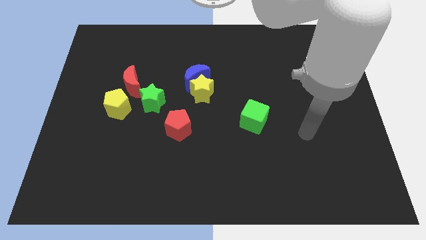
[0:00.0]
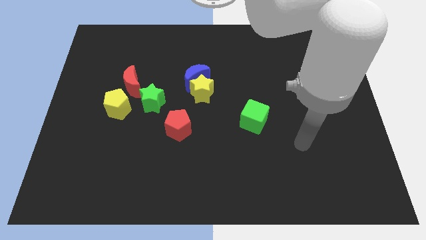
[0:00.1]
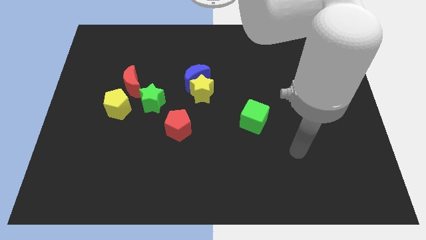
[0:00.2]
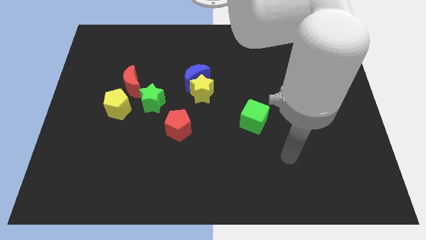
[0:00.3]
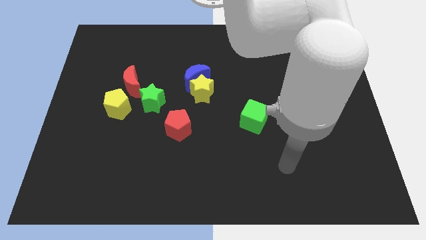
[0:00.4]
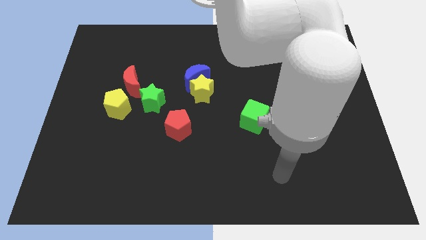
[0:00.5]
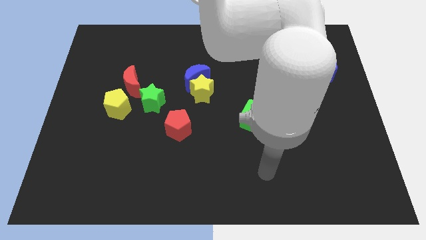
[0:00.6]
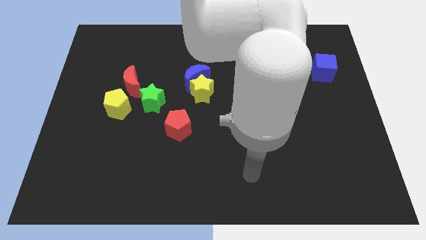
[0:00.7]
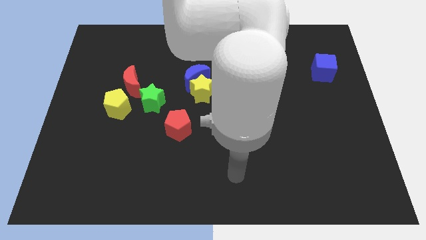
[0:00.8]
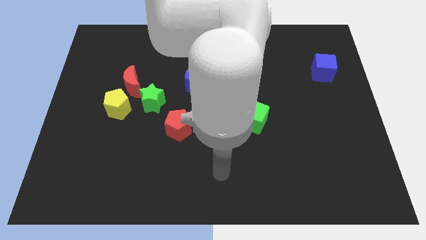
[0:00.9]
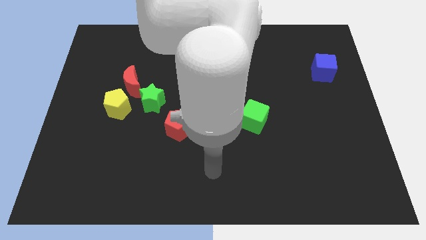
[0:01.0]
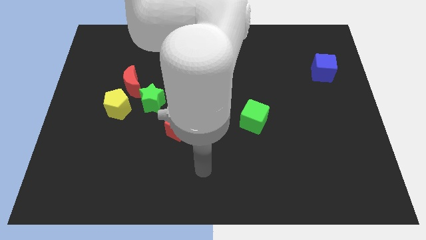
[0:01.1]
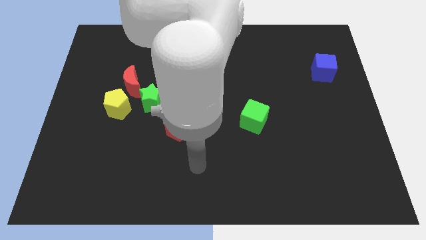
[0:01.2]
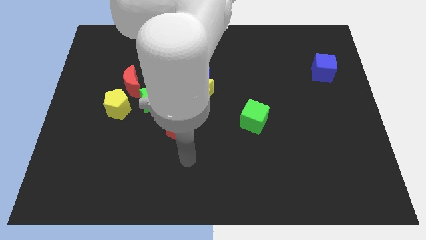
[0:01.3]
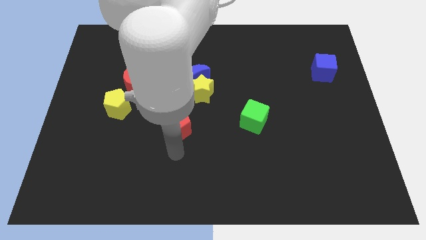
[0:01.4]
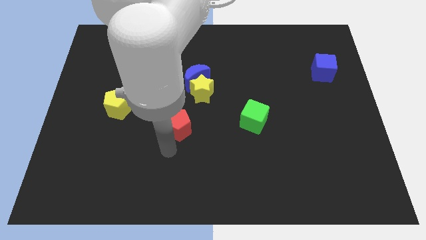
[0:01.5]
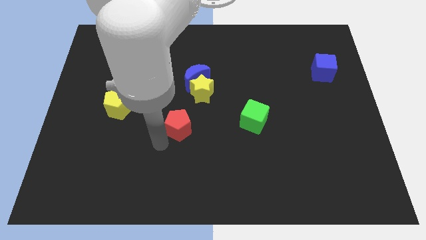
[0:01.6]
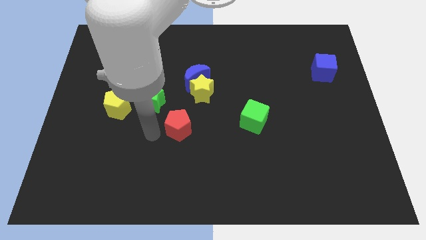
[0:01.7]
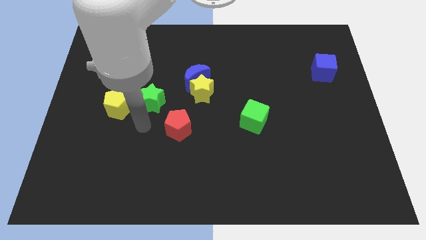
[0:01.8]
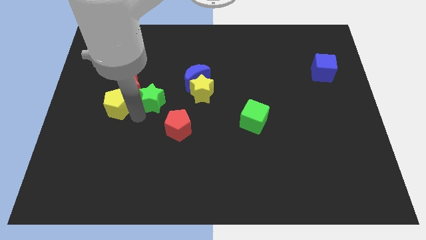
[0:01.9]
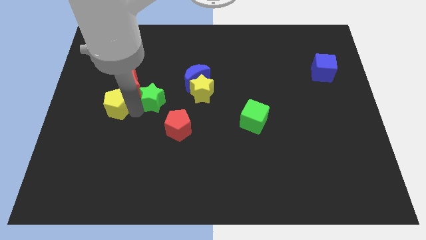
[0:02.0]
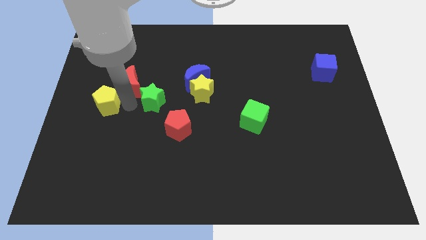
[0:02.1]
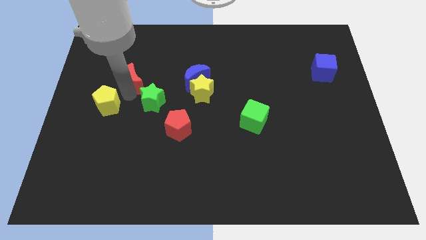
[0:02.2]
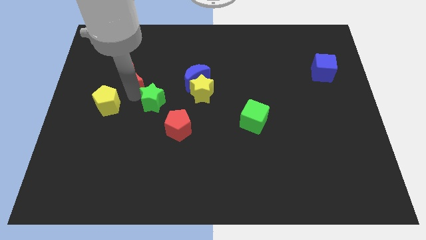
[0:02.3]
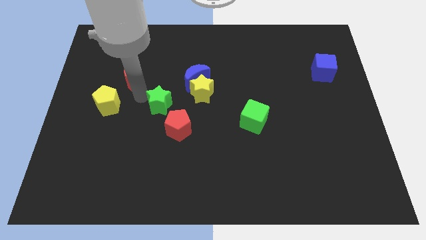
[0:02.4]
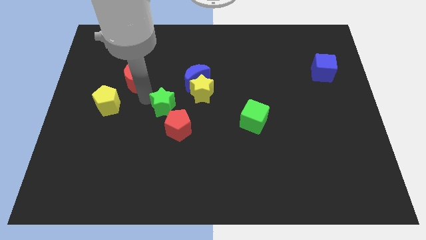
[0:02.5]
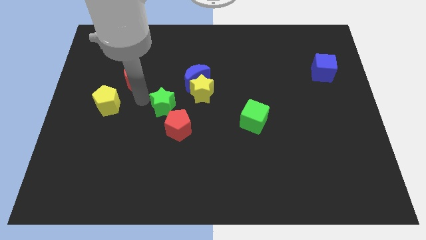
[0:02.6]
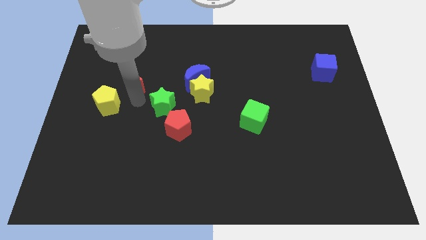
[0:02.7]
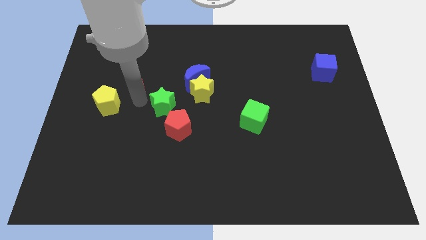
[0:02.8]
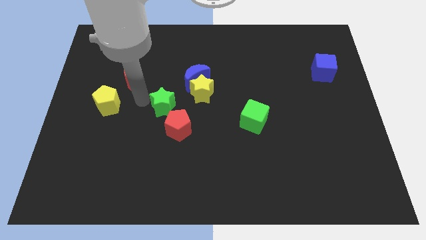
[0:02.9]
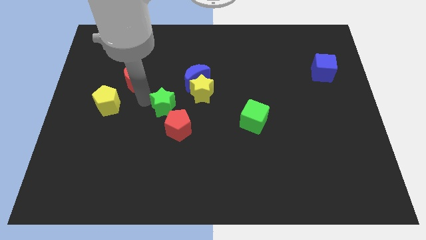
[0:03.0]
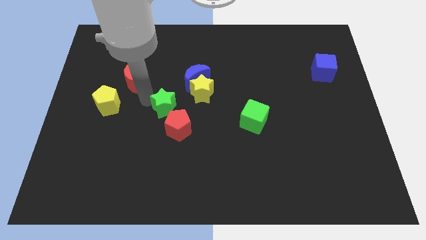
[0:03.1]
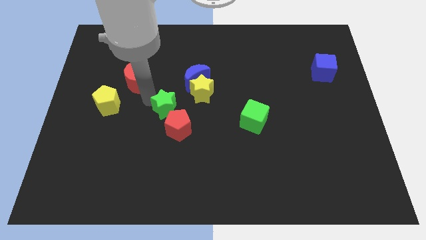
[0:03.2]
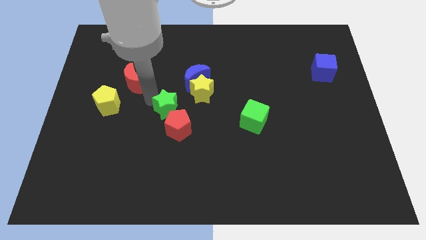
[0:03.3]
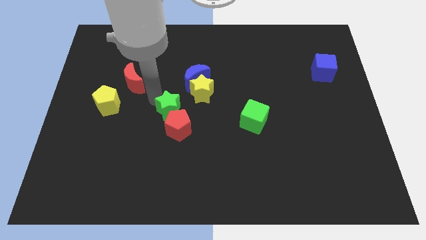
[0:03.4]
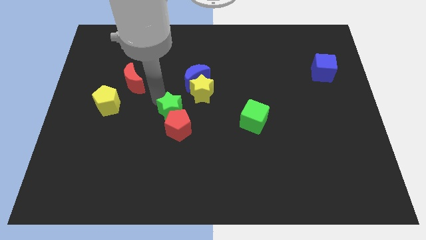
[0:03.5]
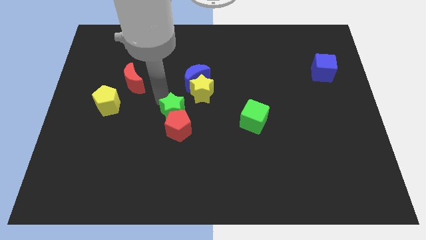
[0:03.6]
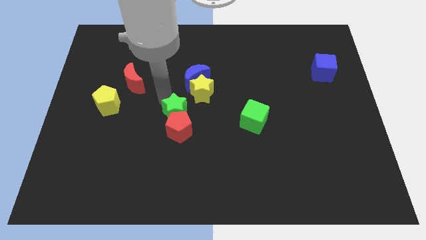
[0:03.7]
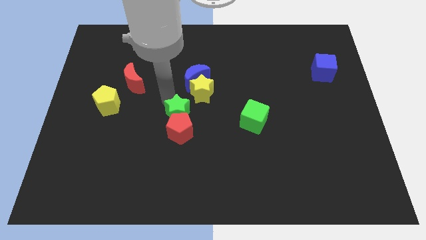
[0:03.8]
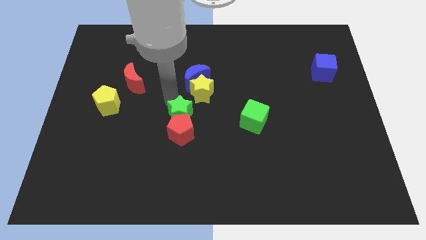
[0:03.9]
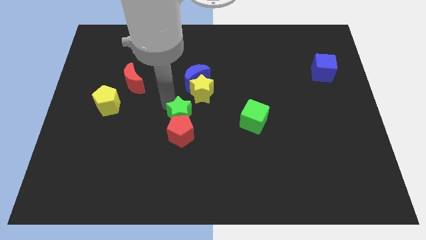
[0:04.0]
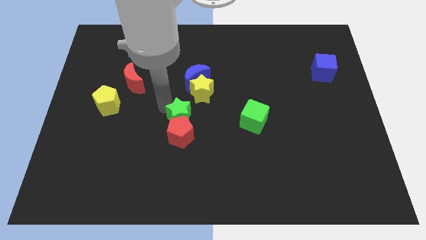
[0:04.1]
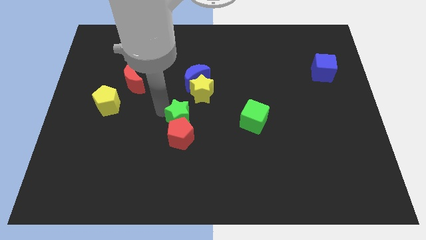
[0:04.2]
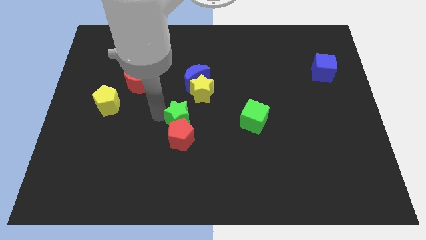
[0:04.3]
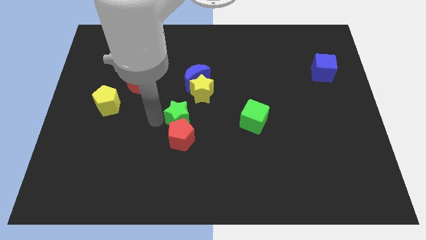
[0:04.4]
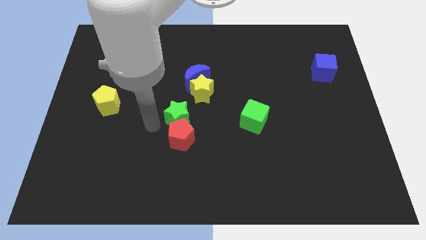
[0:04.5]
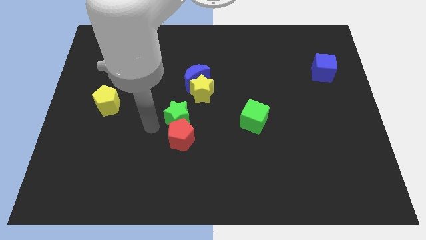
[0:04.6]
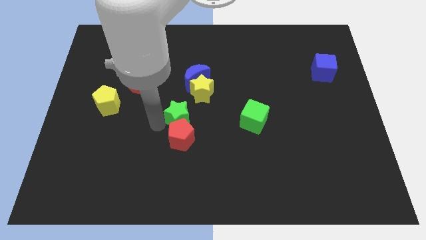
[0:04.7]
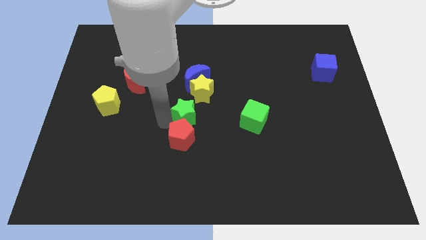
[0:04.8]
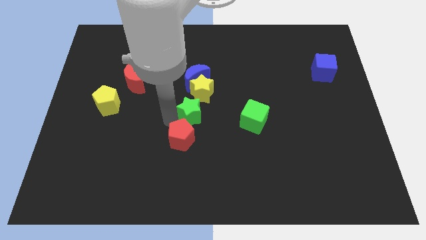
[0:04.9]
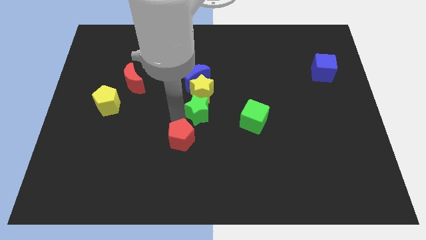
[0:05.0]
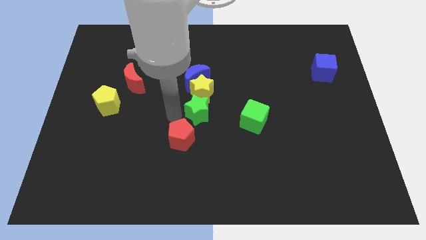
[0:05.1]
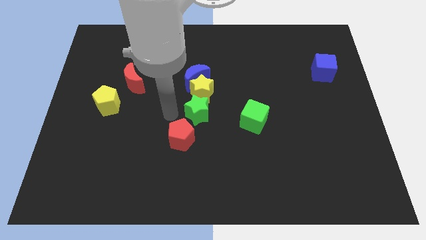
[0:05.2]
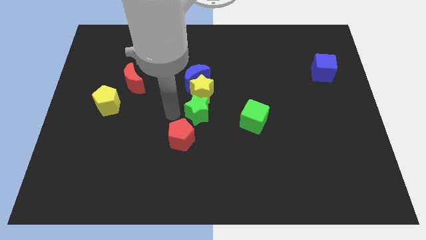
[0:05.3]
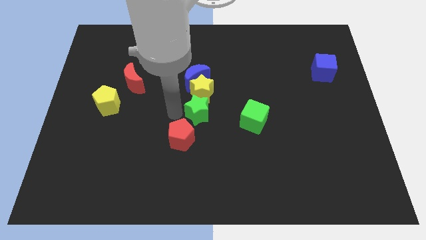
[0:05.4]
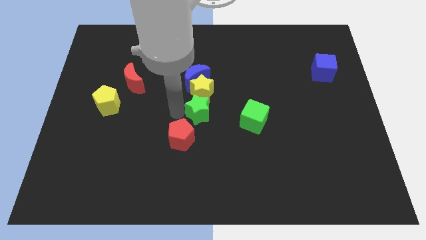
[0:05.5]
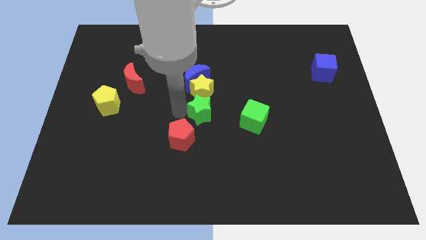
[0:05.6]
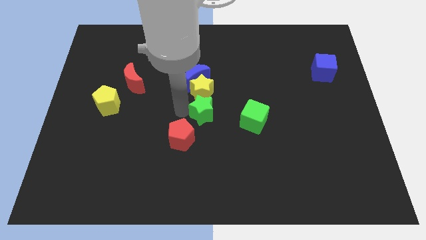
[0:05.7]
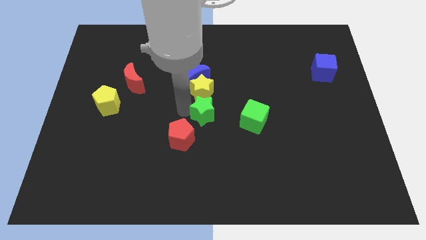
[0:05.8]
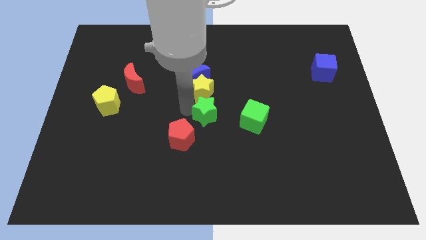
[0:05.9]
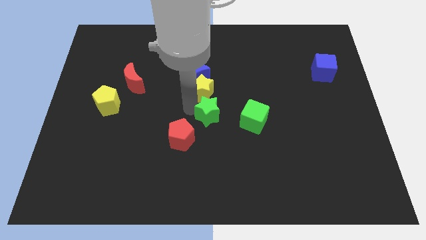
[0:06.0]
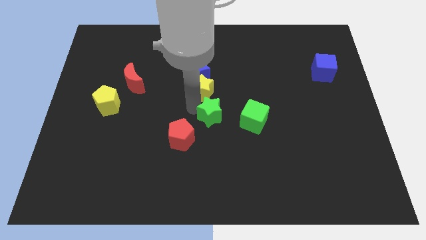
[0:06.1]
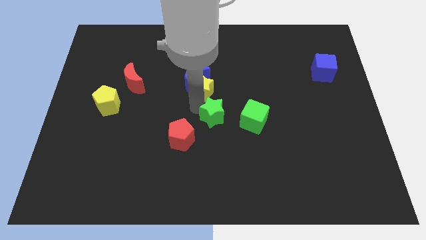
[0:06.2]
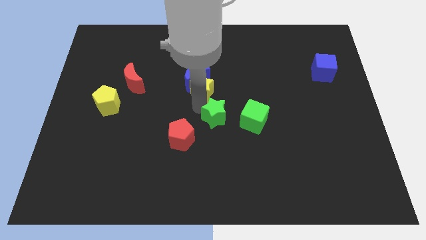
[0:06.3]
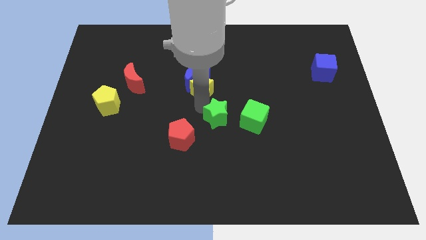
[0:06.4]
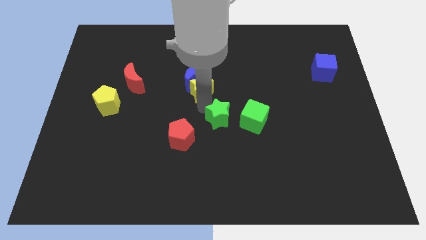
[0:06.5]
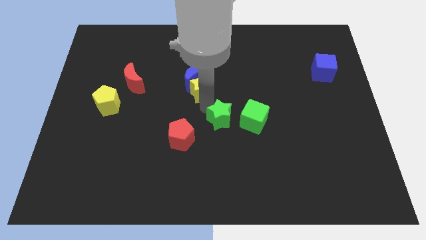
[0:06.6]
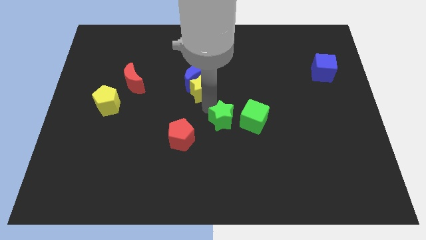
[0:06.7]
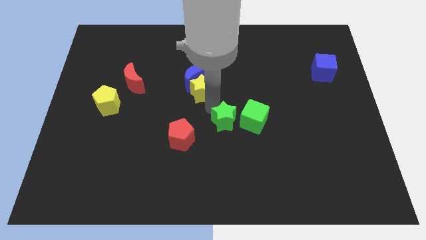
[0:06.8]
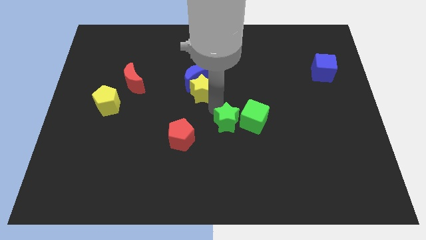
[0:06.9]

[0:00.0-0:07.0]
slide the green star towards the green cube

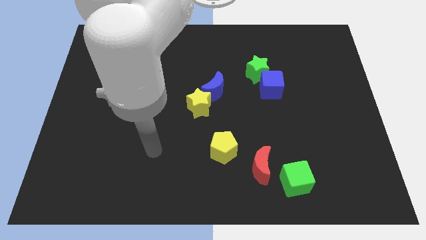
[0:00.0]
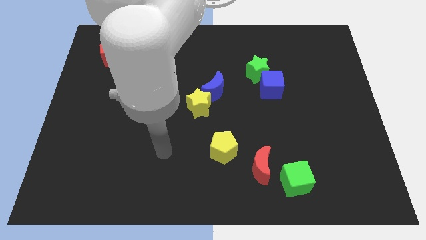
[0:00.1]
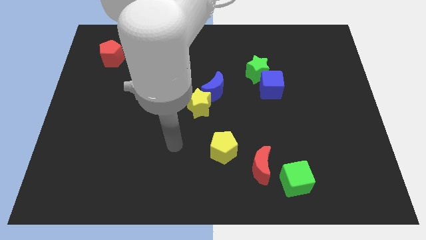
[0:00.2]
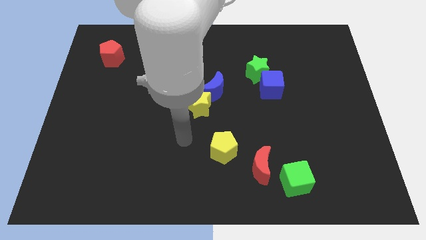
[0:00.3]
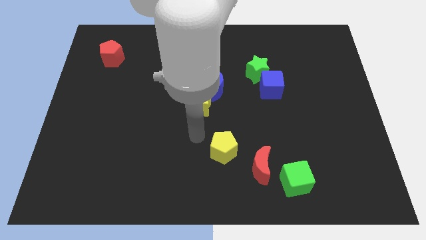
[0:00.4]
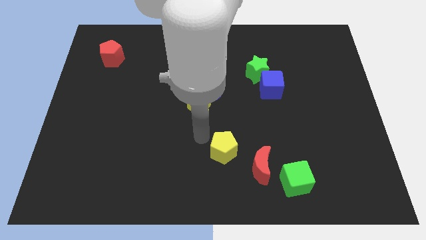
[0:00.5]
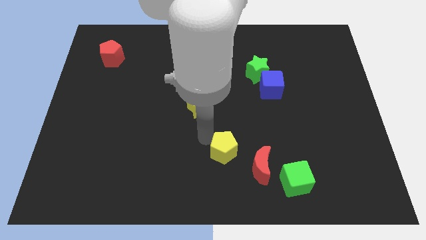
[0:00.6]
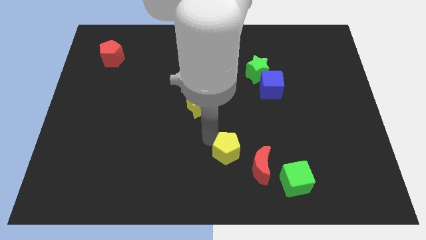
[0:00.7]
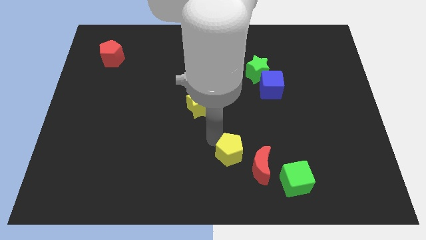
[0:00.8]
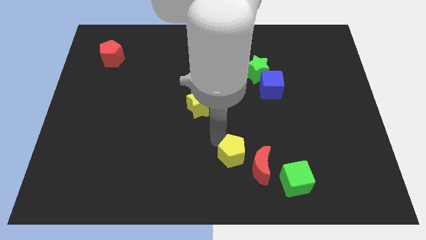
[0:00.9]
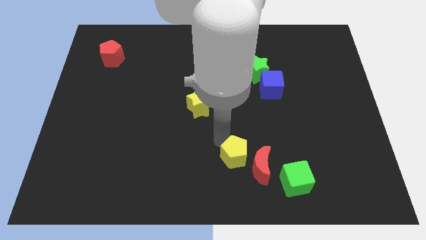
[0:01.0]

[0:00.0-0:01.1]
put the yellow pentagon close to the red moon

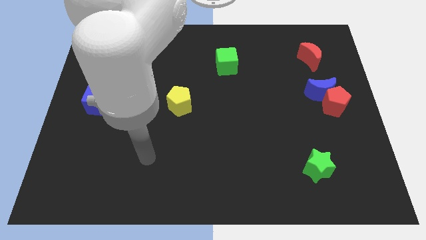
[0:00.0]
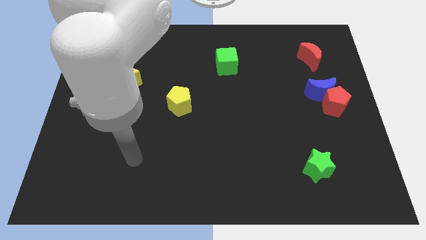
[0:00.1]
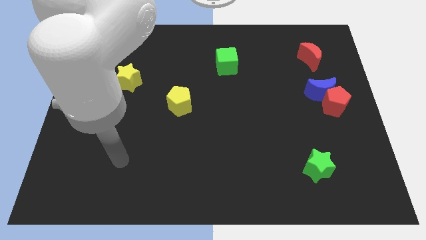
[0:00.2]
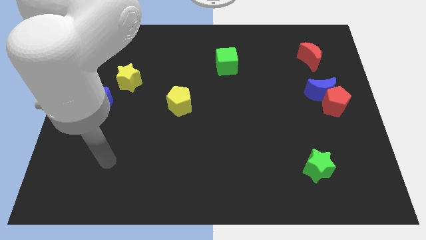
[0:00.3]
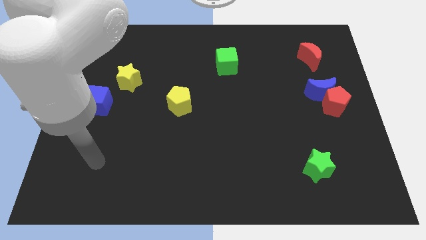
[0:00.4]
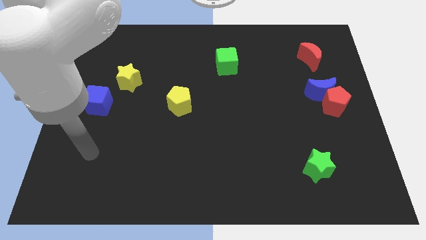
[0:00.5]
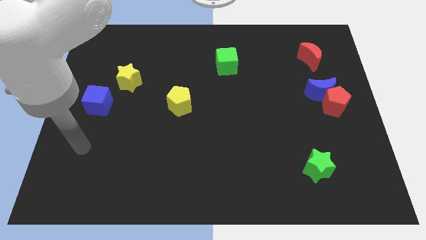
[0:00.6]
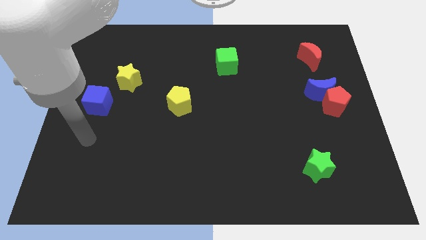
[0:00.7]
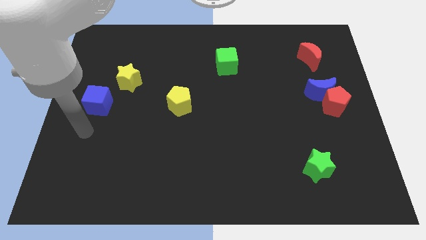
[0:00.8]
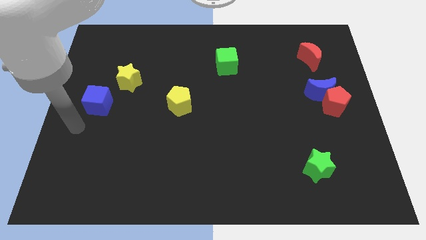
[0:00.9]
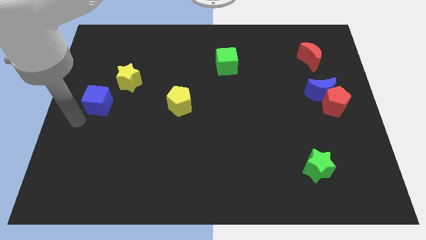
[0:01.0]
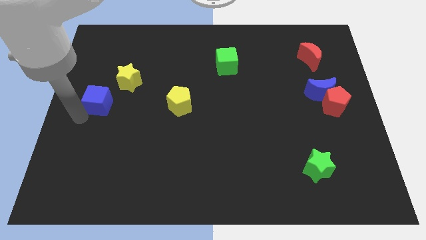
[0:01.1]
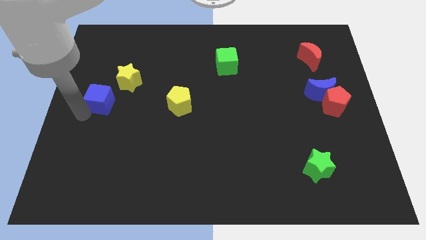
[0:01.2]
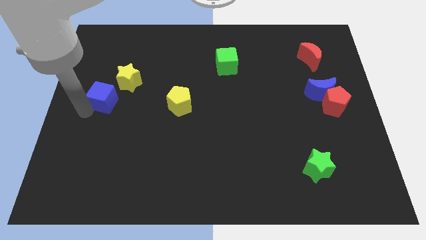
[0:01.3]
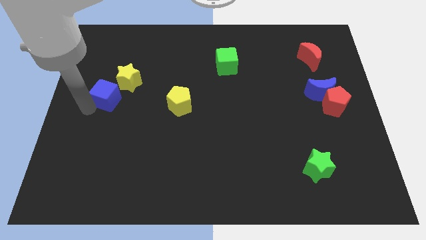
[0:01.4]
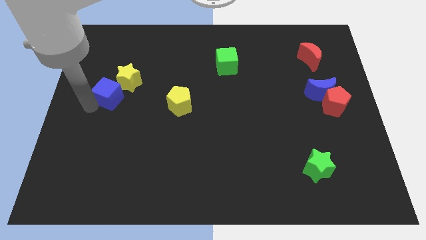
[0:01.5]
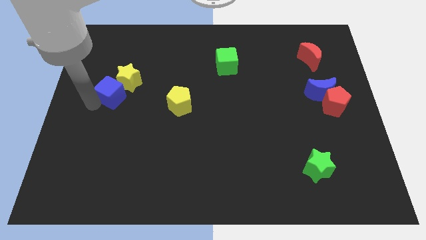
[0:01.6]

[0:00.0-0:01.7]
slide the blue cube towards the yellow star
